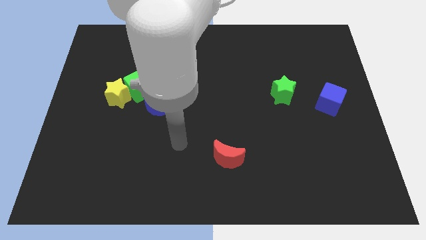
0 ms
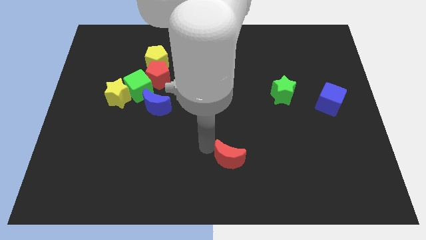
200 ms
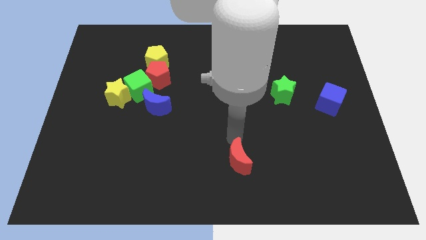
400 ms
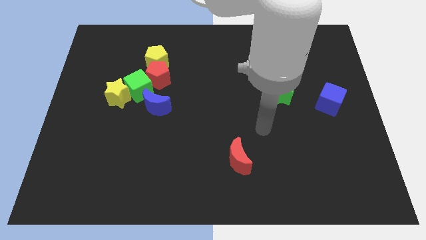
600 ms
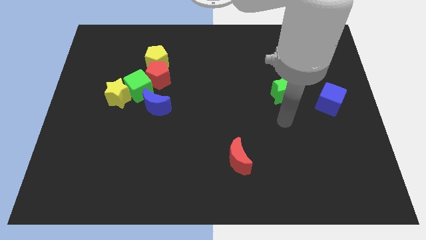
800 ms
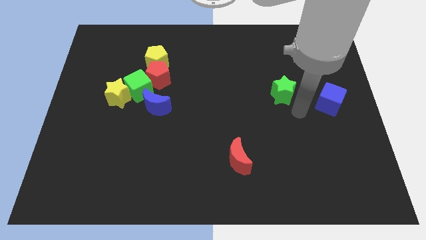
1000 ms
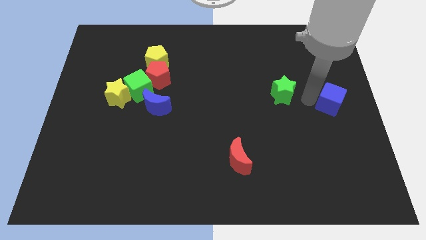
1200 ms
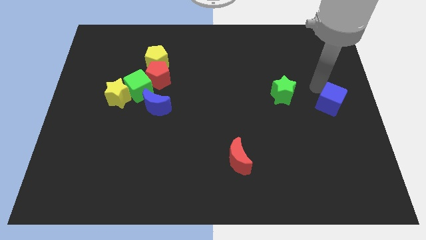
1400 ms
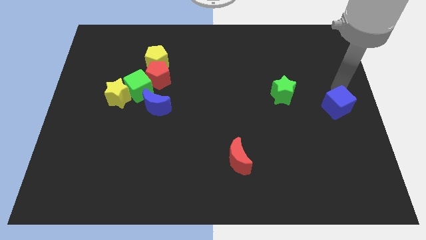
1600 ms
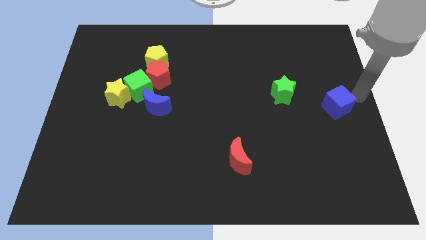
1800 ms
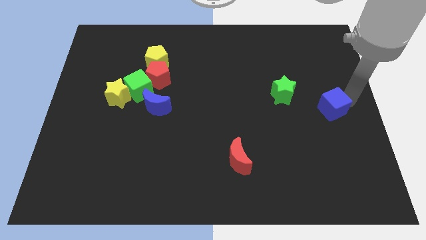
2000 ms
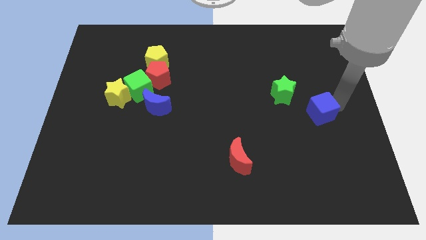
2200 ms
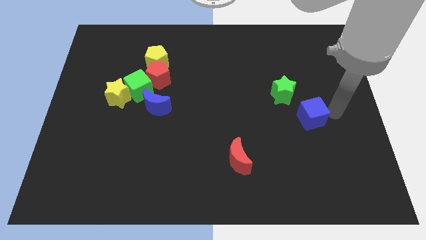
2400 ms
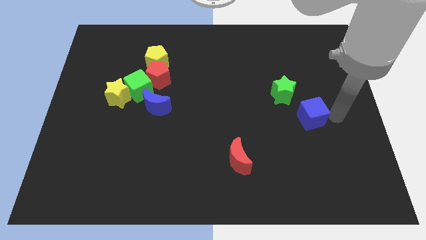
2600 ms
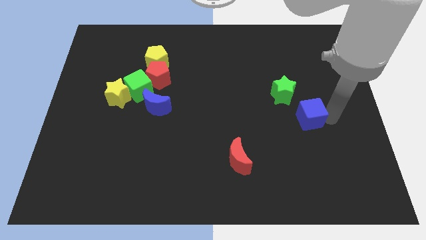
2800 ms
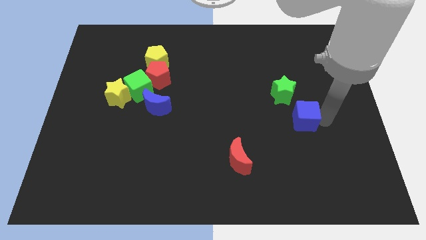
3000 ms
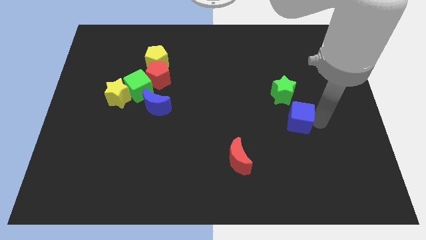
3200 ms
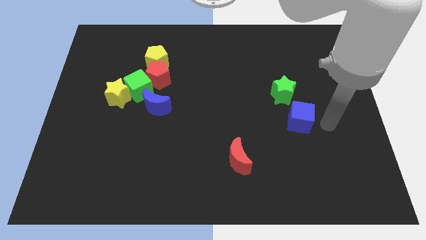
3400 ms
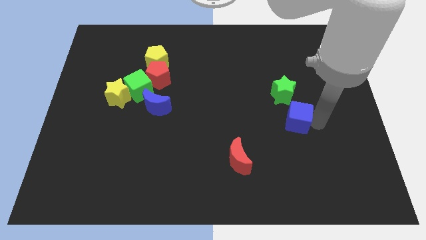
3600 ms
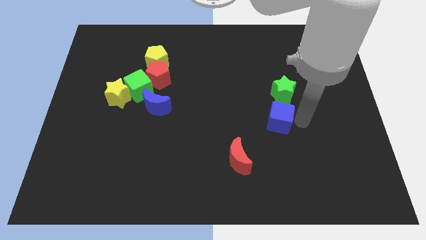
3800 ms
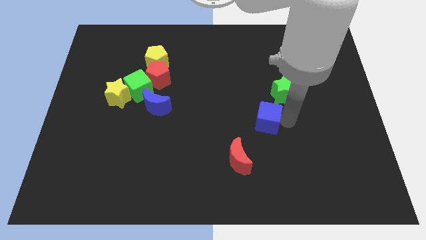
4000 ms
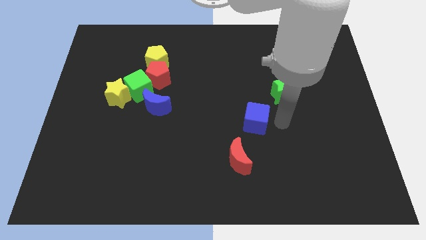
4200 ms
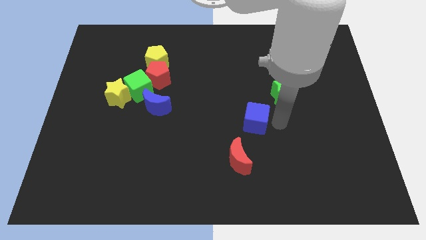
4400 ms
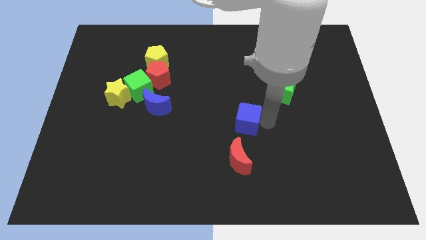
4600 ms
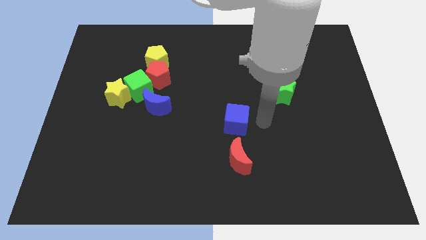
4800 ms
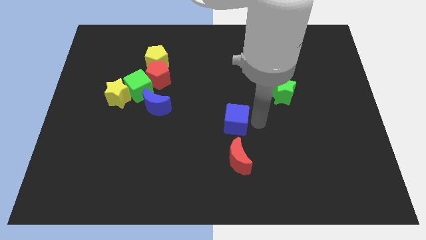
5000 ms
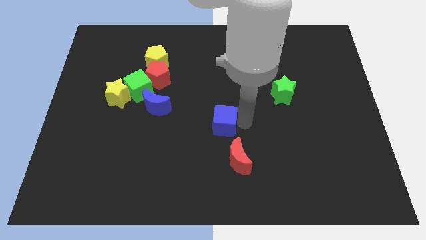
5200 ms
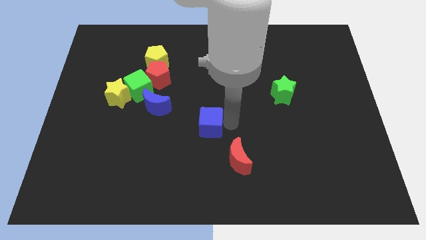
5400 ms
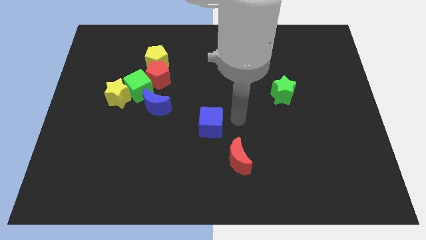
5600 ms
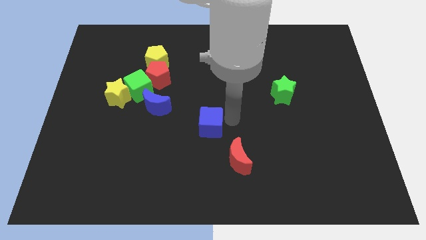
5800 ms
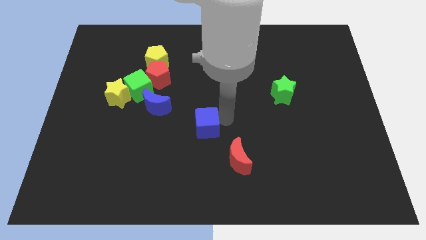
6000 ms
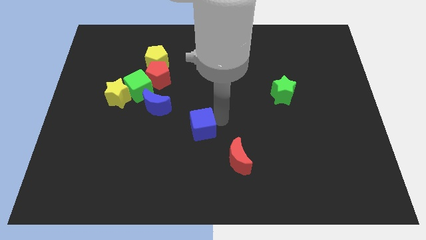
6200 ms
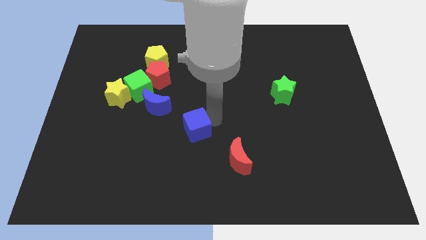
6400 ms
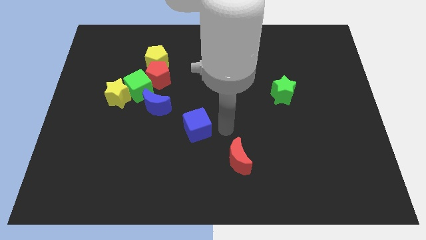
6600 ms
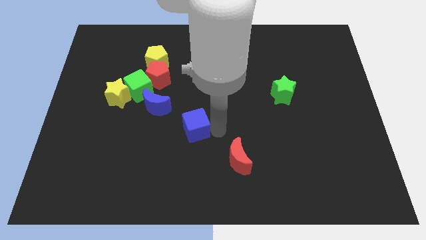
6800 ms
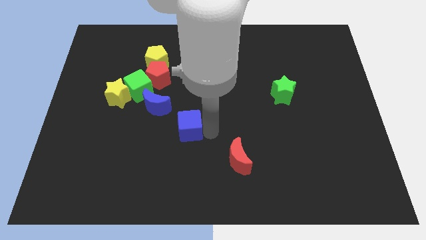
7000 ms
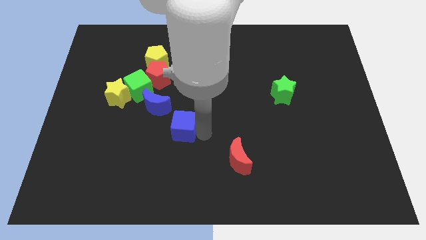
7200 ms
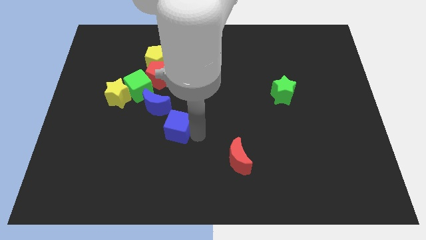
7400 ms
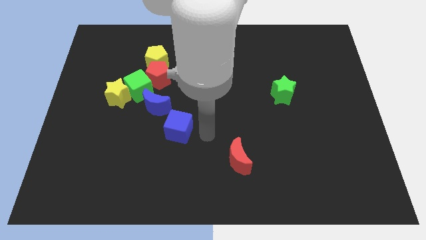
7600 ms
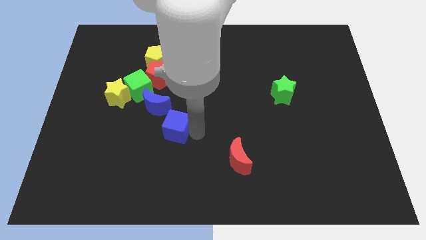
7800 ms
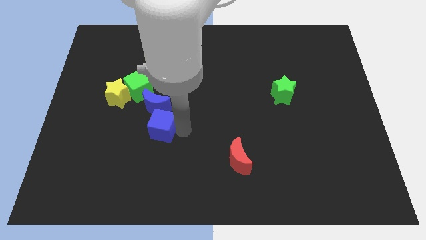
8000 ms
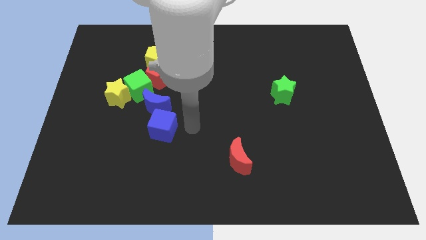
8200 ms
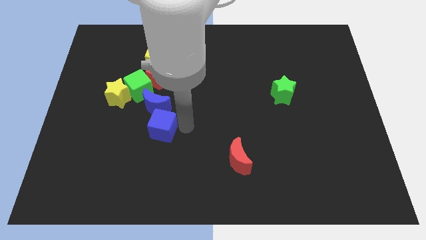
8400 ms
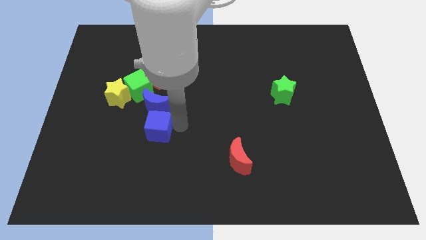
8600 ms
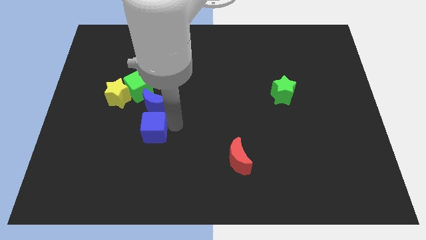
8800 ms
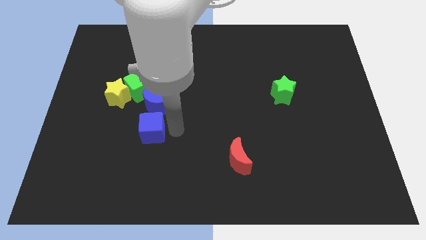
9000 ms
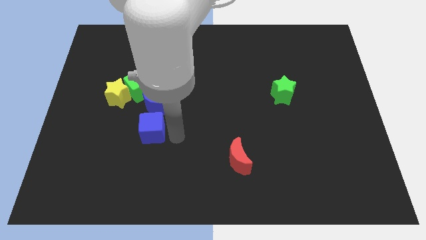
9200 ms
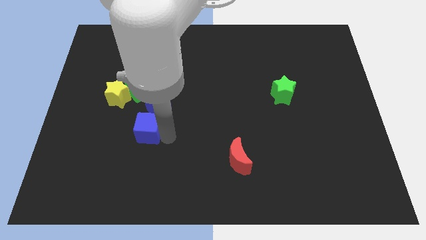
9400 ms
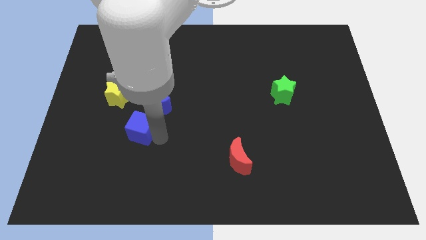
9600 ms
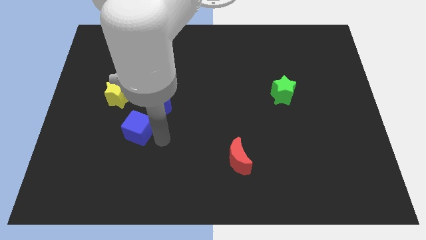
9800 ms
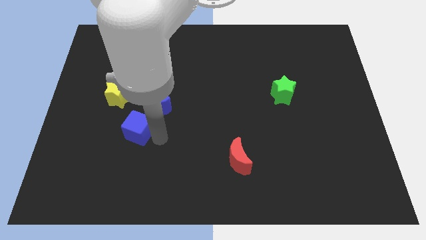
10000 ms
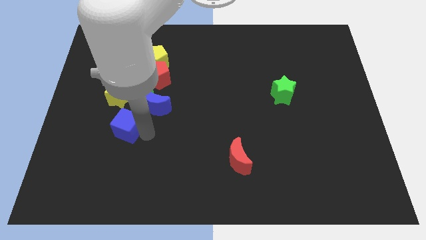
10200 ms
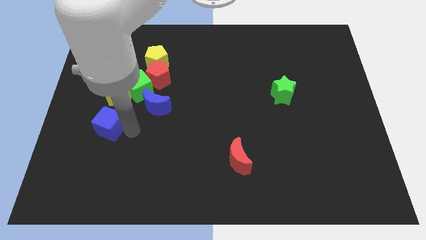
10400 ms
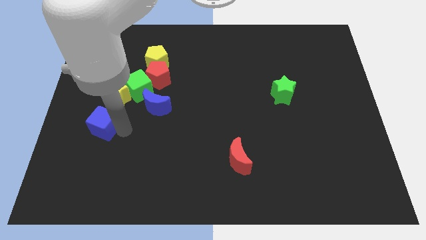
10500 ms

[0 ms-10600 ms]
slide the blue cube to the bottom left of the yellow star

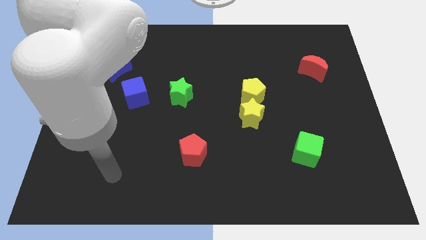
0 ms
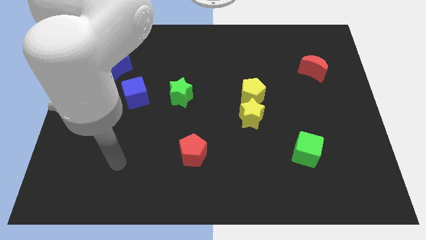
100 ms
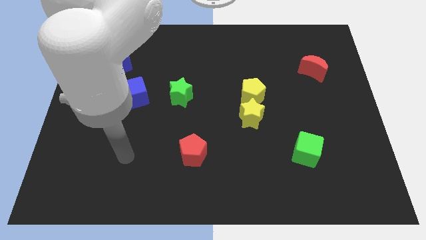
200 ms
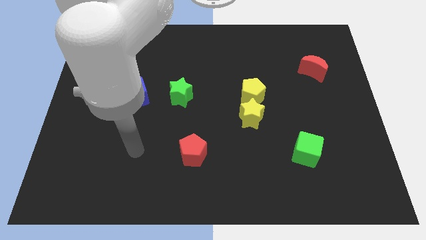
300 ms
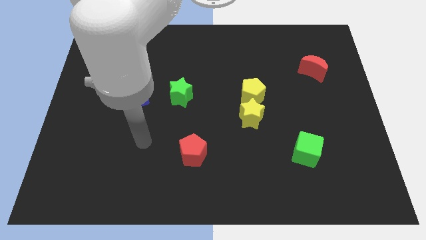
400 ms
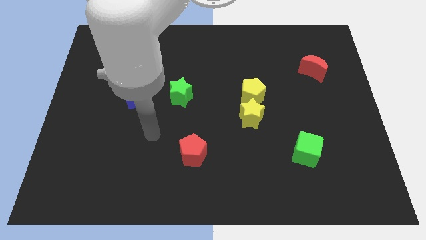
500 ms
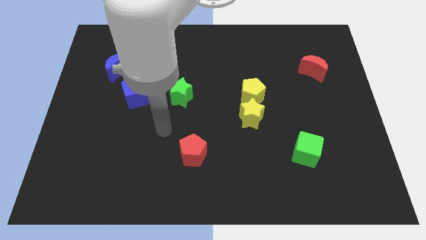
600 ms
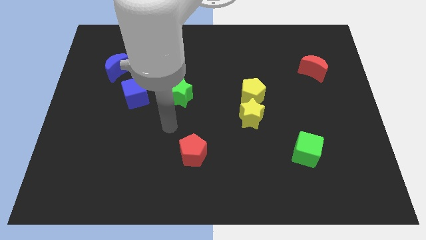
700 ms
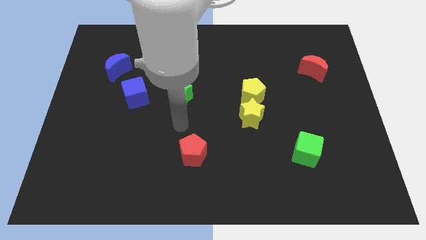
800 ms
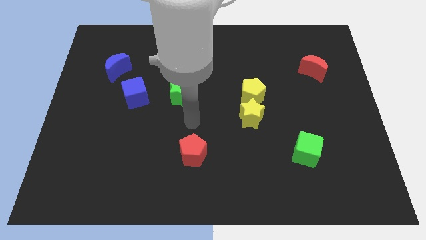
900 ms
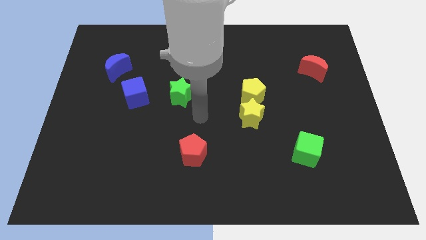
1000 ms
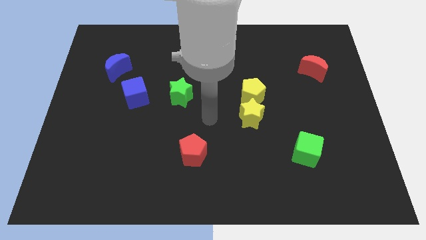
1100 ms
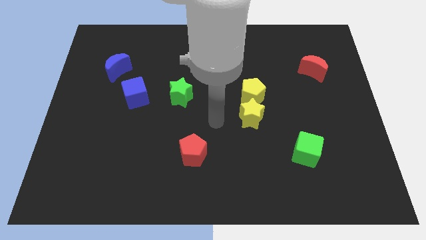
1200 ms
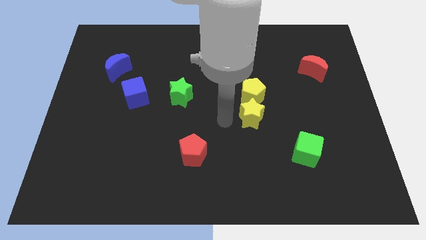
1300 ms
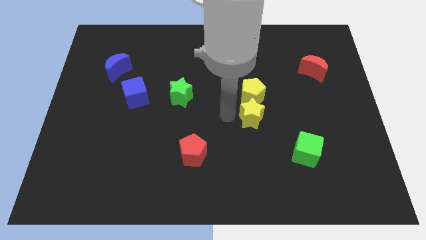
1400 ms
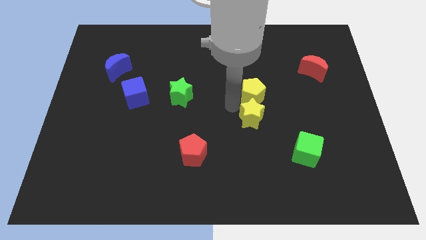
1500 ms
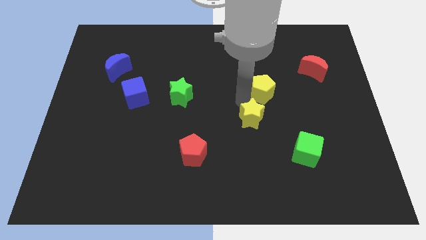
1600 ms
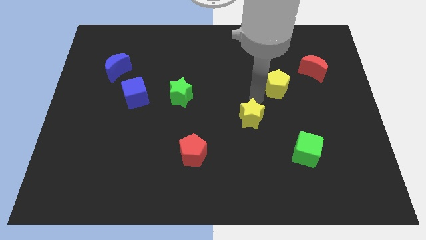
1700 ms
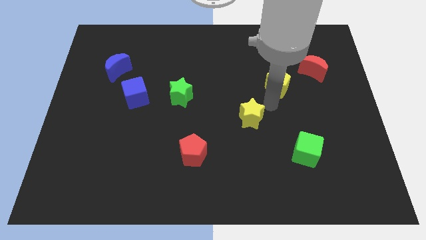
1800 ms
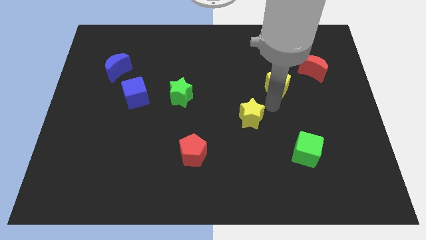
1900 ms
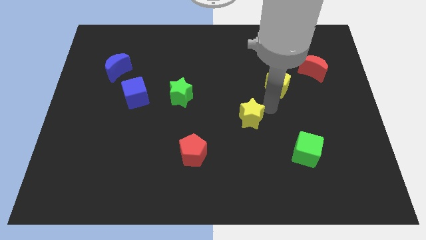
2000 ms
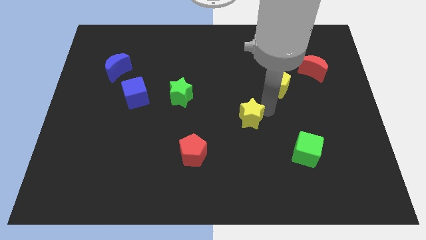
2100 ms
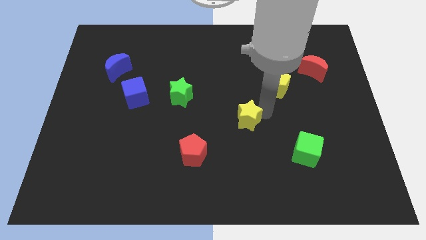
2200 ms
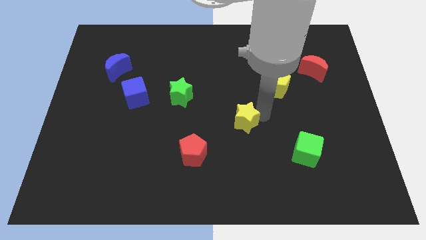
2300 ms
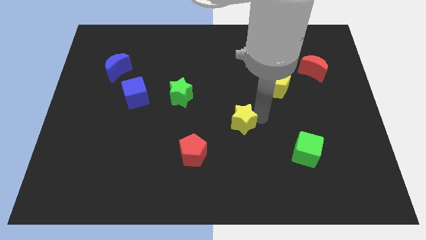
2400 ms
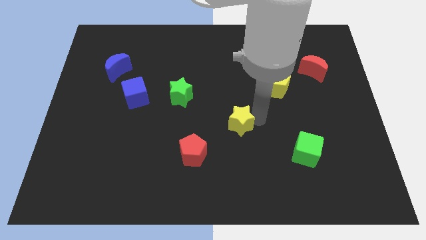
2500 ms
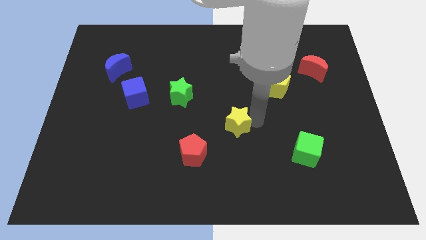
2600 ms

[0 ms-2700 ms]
push the yellow star diagonally up and to the right of the red pentagon

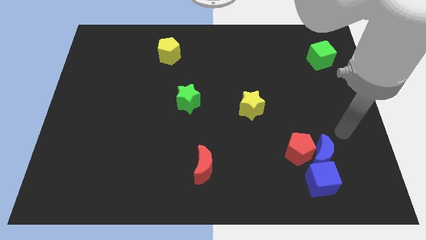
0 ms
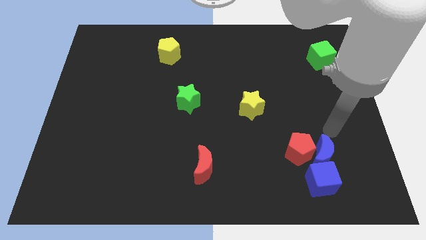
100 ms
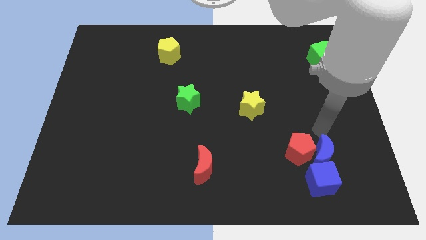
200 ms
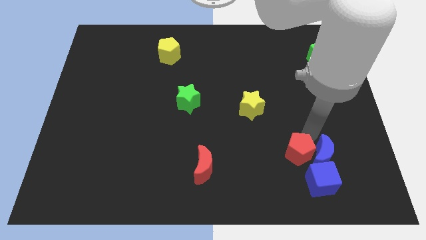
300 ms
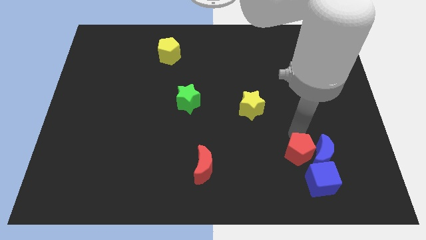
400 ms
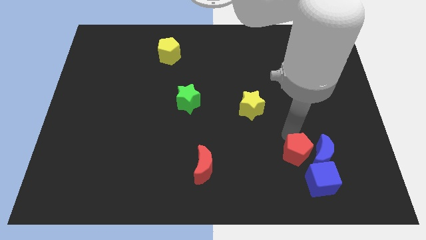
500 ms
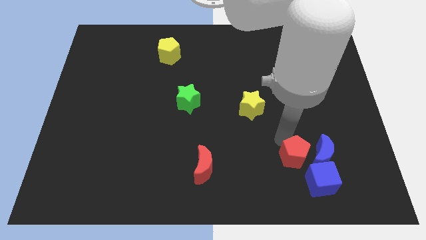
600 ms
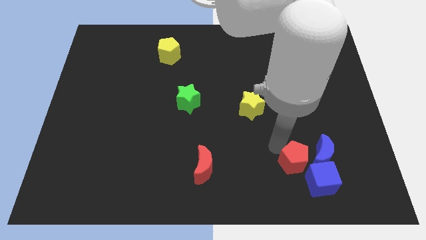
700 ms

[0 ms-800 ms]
push the blue cube to the right side of the red pentagon
